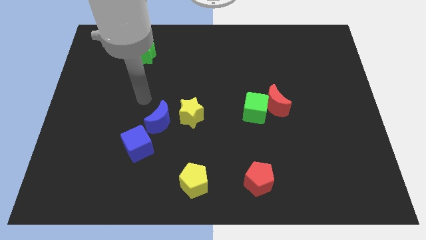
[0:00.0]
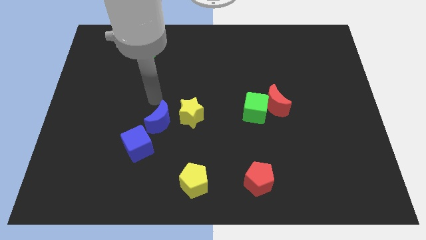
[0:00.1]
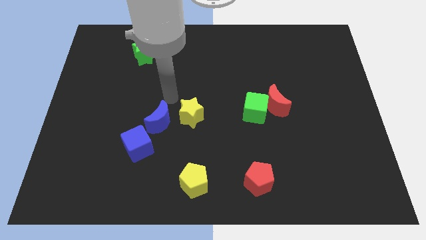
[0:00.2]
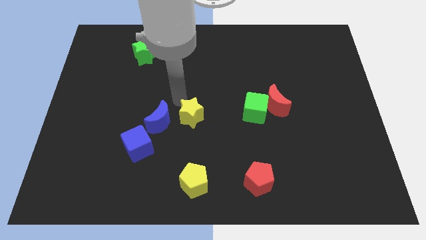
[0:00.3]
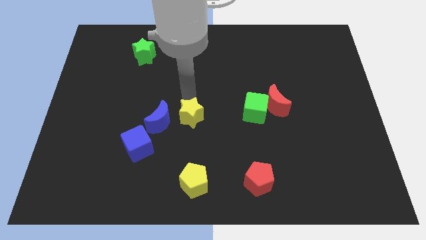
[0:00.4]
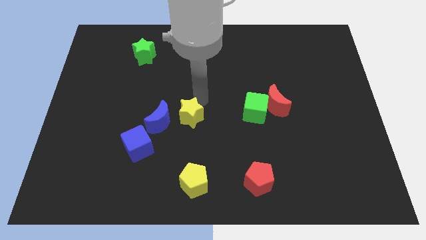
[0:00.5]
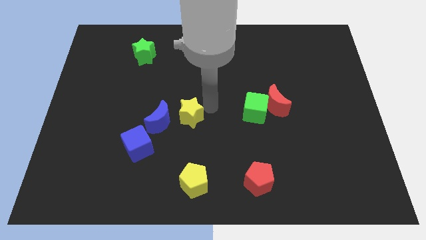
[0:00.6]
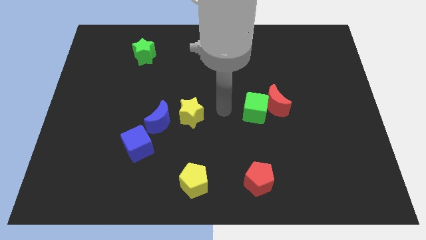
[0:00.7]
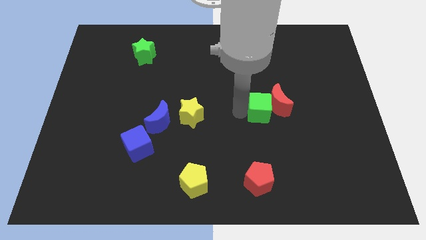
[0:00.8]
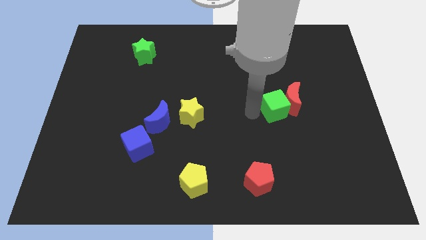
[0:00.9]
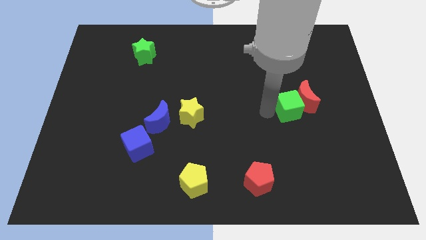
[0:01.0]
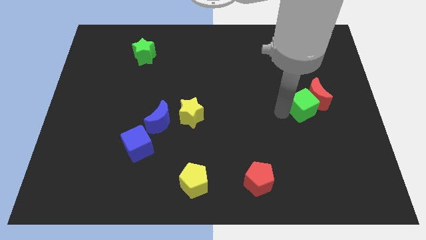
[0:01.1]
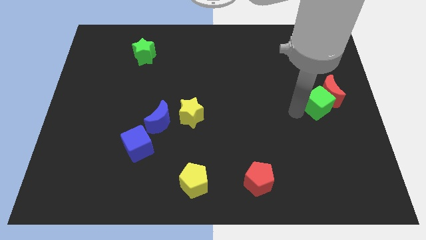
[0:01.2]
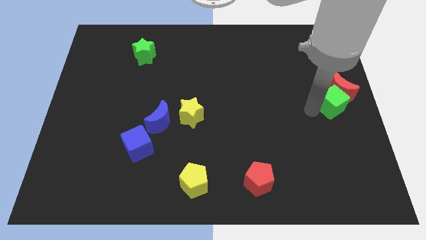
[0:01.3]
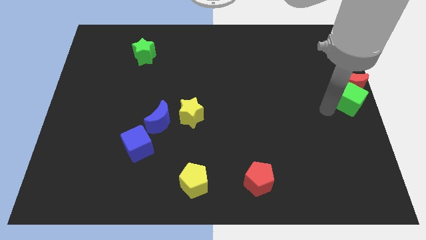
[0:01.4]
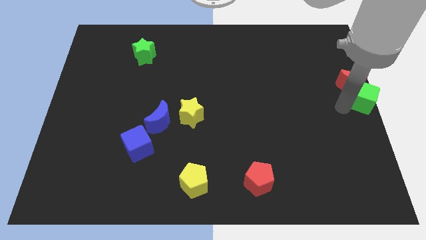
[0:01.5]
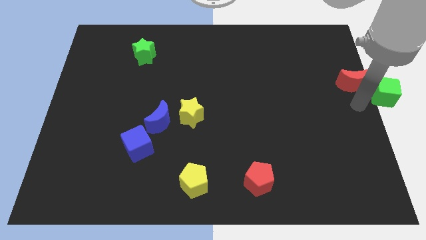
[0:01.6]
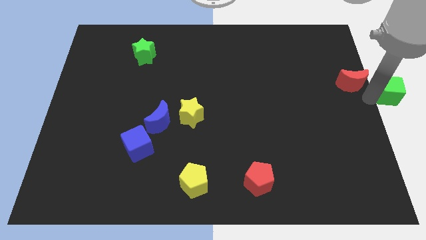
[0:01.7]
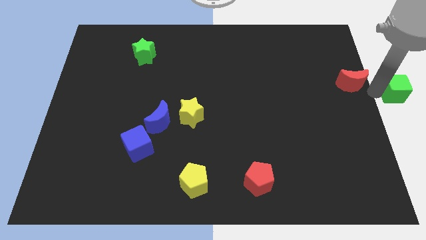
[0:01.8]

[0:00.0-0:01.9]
separate the red moon from the green cube

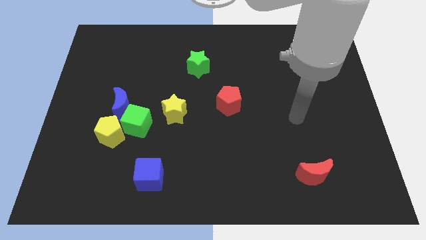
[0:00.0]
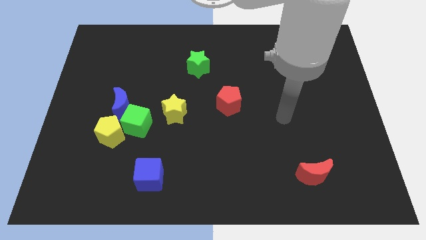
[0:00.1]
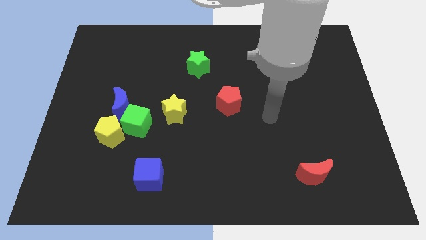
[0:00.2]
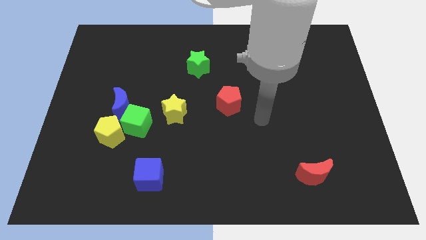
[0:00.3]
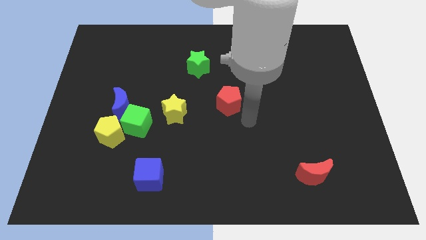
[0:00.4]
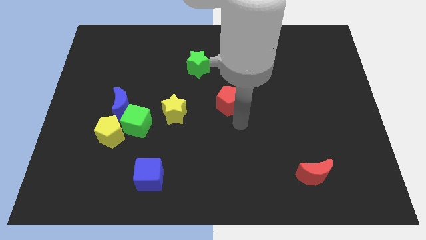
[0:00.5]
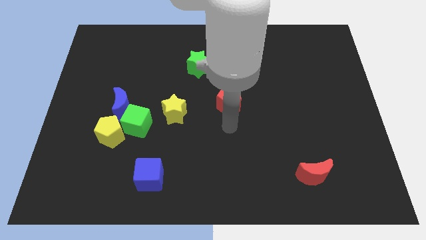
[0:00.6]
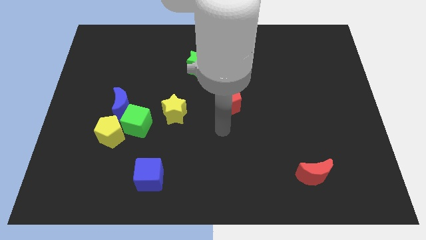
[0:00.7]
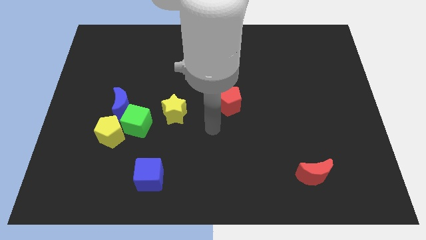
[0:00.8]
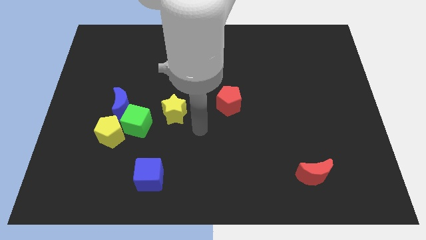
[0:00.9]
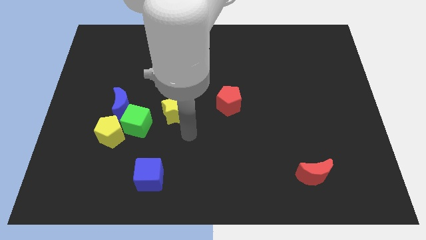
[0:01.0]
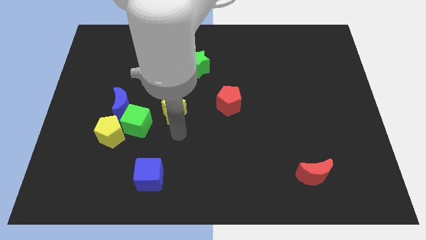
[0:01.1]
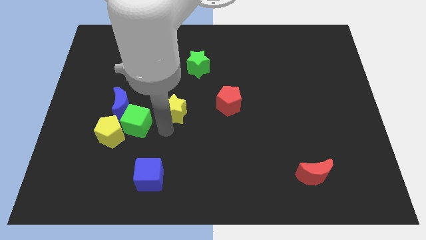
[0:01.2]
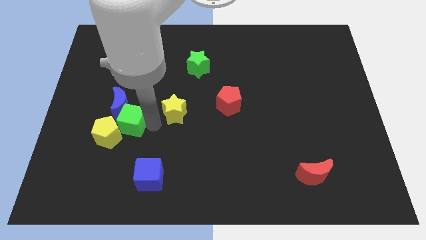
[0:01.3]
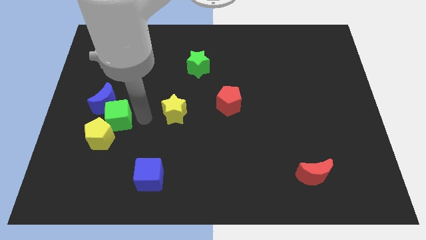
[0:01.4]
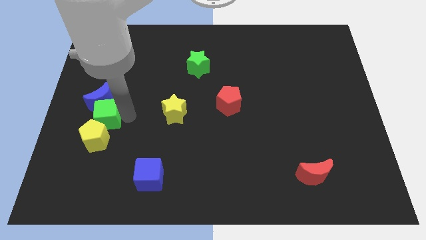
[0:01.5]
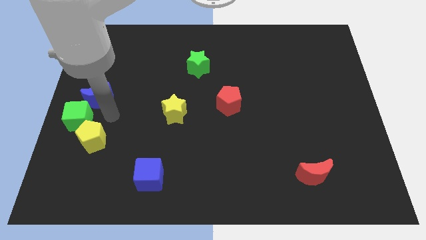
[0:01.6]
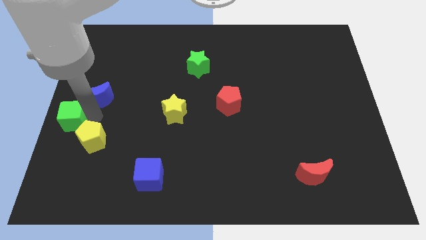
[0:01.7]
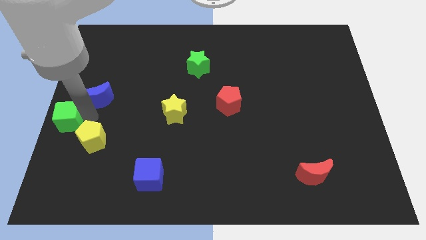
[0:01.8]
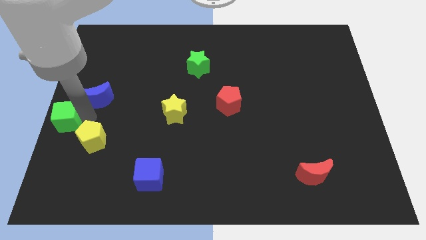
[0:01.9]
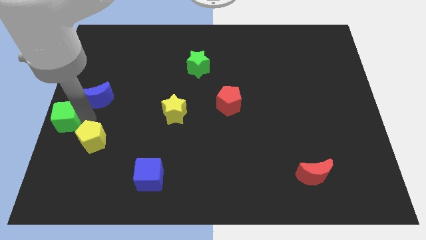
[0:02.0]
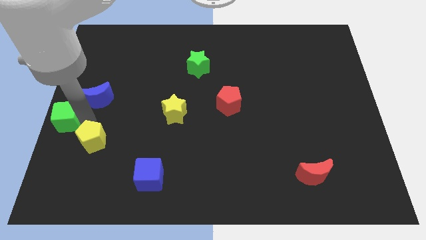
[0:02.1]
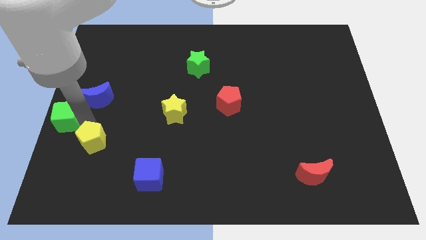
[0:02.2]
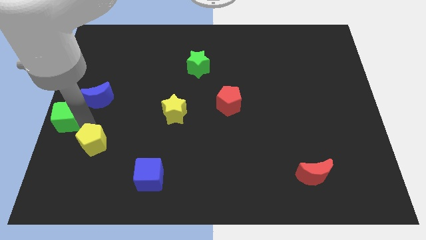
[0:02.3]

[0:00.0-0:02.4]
move the yellow pentagon away from the green cube and blue moon

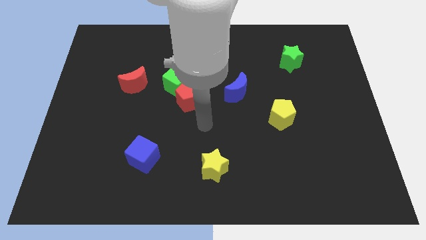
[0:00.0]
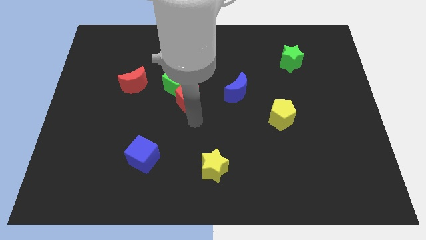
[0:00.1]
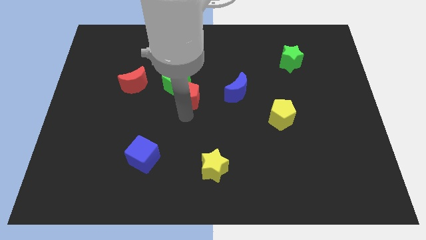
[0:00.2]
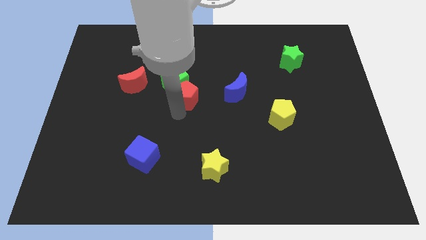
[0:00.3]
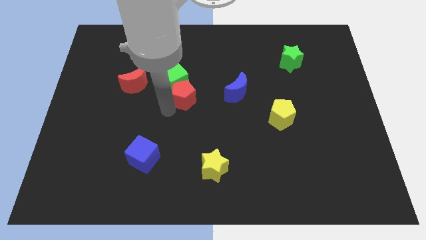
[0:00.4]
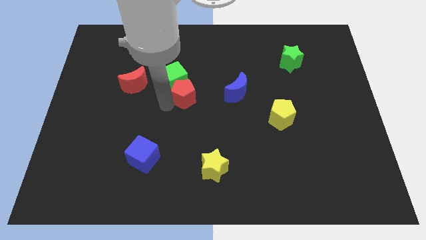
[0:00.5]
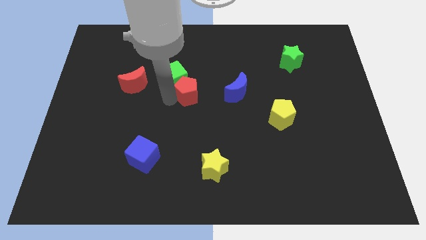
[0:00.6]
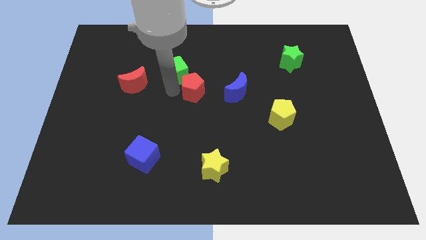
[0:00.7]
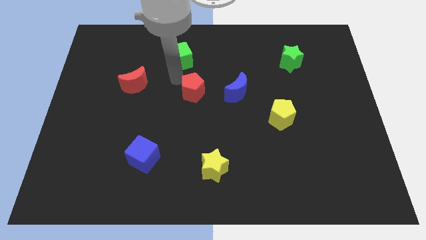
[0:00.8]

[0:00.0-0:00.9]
pull the red pentagon apart from the green cube

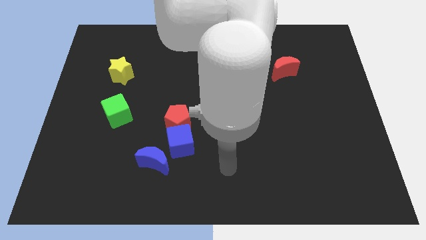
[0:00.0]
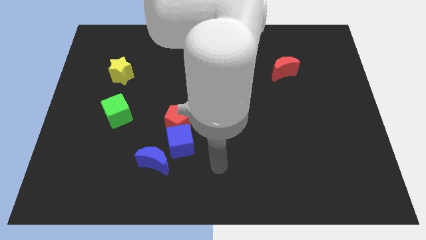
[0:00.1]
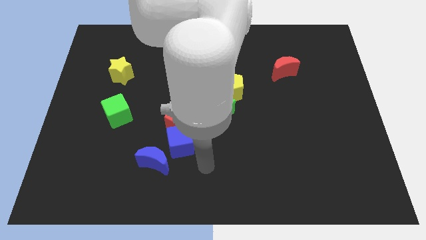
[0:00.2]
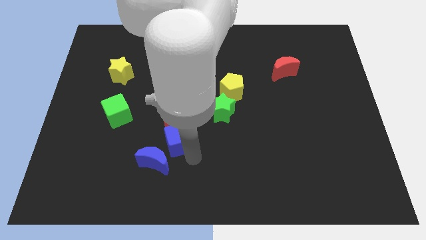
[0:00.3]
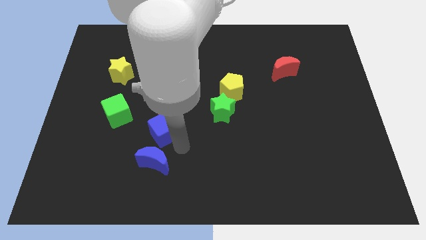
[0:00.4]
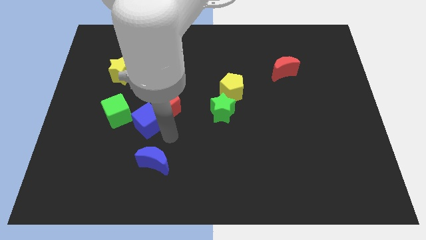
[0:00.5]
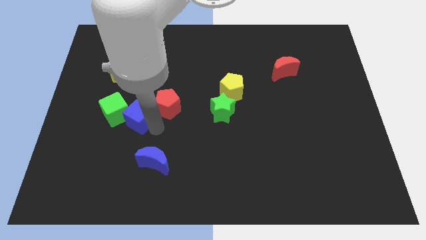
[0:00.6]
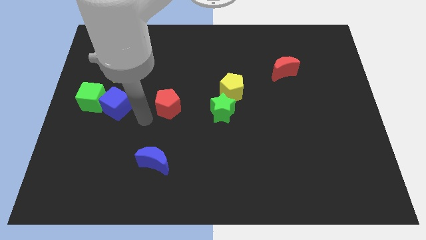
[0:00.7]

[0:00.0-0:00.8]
separate the red pentagon from the blue cube

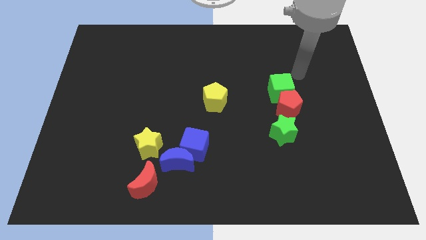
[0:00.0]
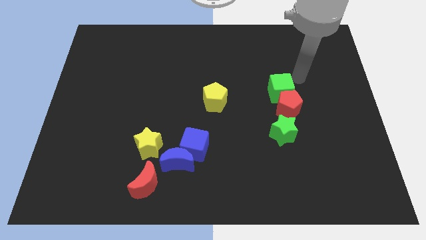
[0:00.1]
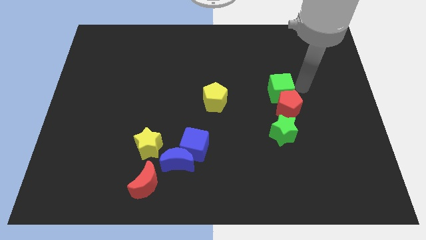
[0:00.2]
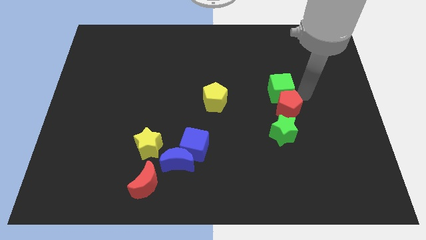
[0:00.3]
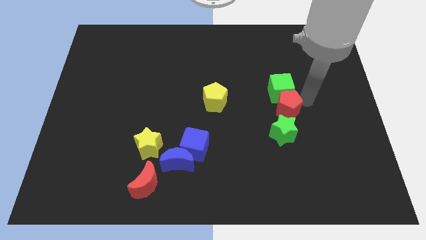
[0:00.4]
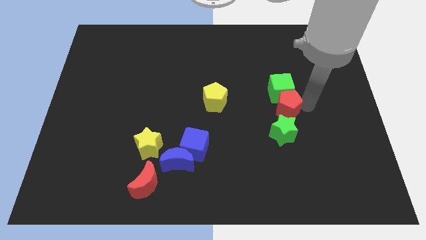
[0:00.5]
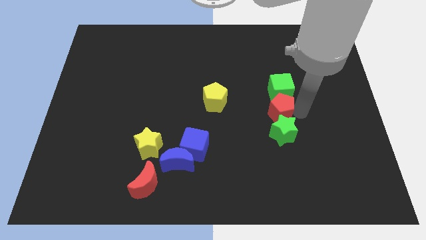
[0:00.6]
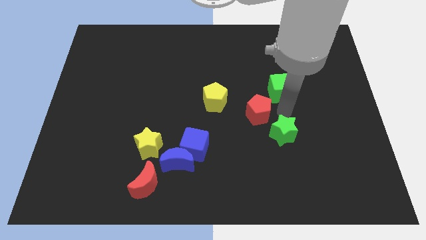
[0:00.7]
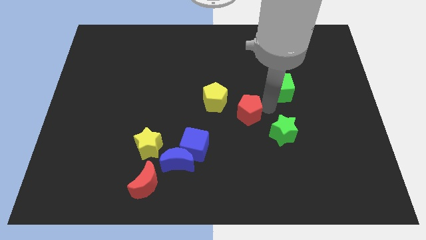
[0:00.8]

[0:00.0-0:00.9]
move the green cube away from the red pentagon

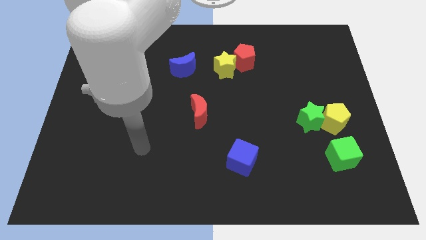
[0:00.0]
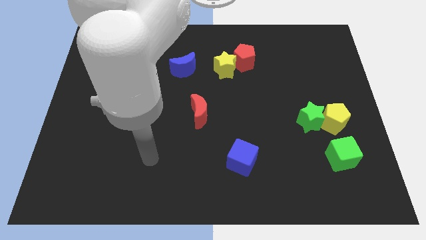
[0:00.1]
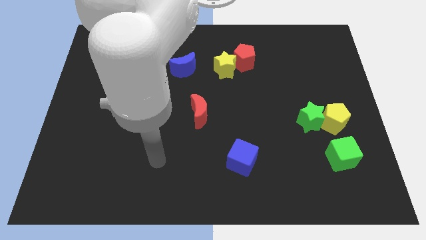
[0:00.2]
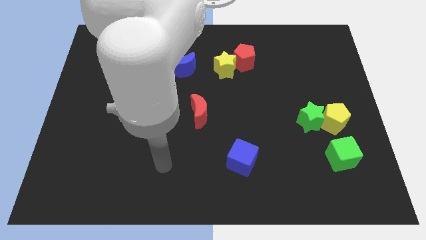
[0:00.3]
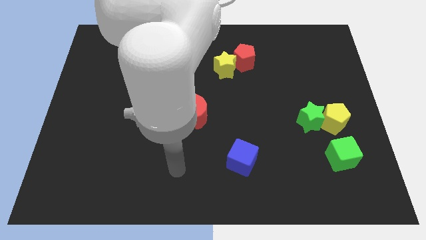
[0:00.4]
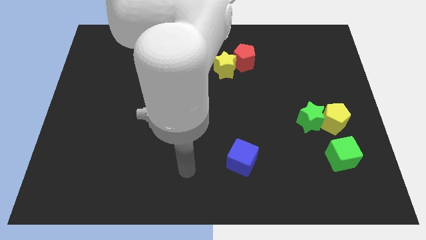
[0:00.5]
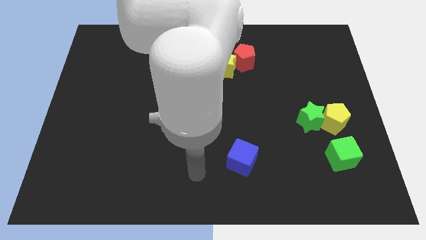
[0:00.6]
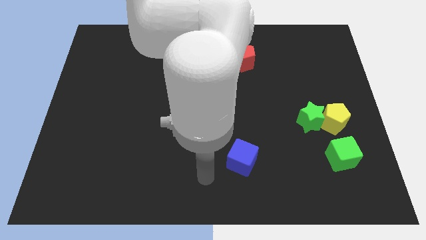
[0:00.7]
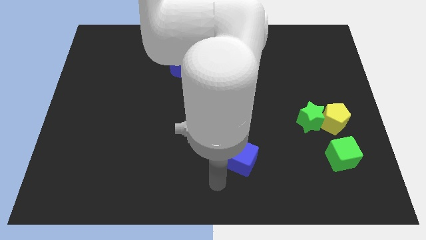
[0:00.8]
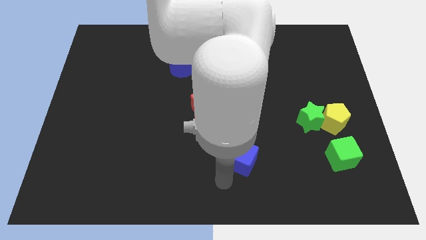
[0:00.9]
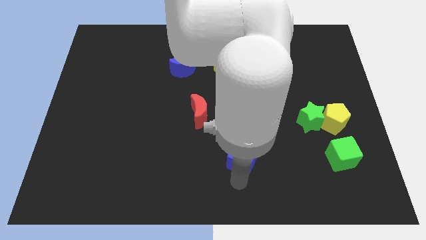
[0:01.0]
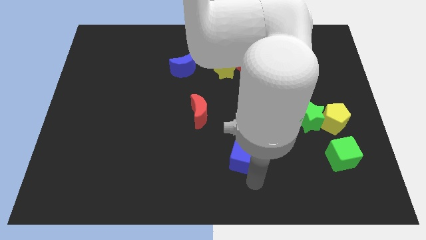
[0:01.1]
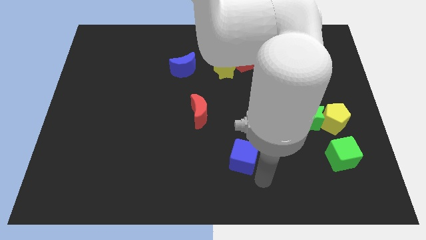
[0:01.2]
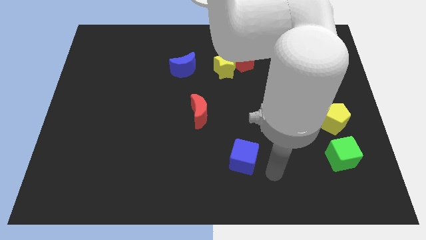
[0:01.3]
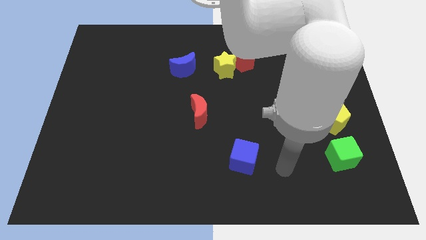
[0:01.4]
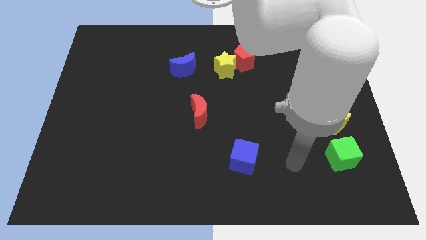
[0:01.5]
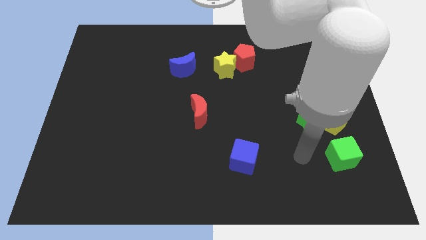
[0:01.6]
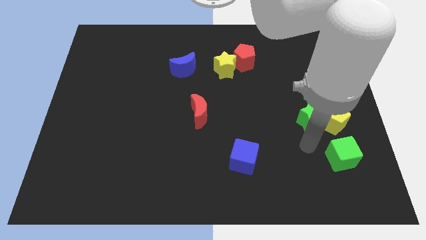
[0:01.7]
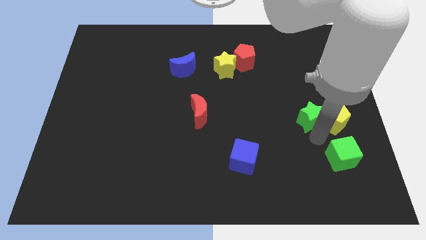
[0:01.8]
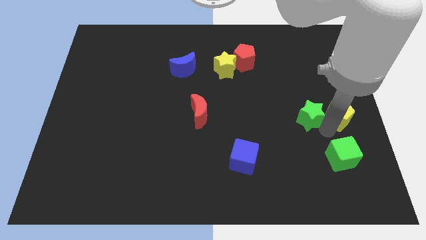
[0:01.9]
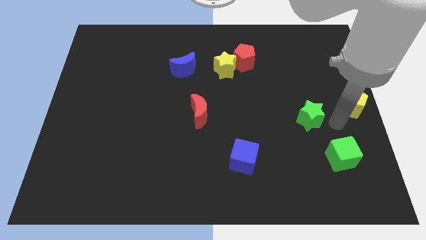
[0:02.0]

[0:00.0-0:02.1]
separate the green star from the yellow pentagon
